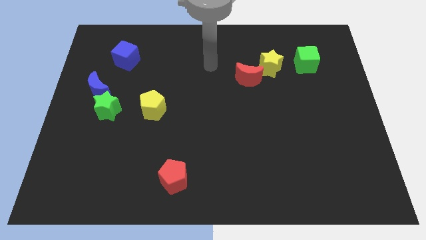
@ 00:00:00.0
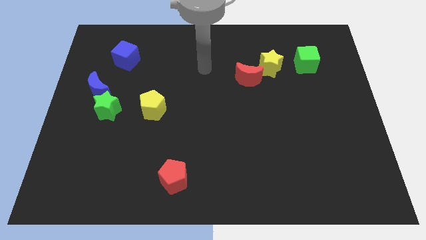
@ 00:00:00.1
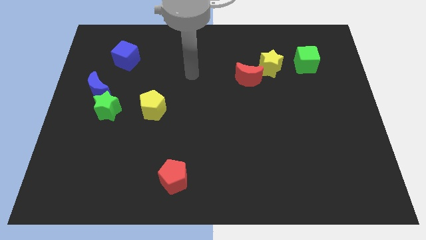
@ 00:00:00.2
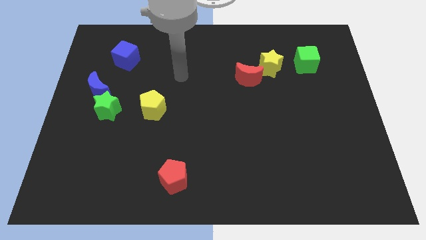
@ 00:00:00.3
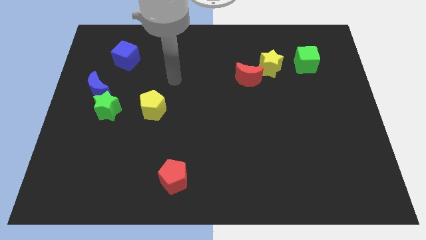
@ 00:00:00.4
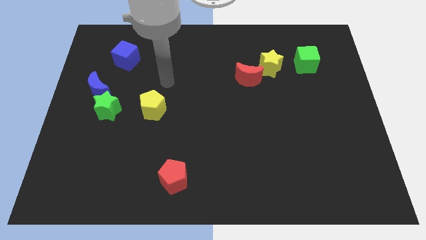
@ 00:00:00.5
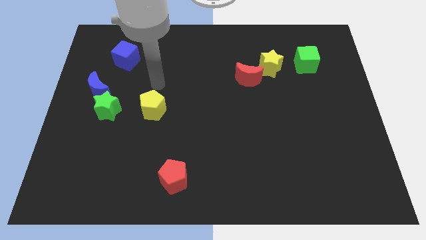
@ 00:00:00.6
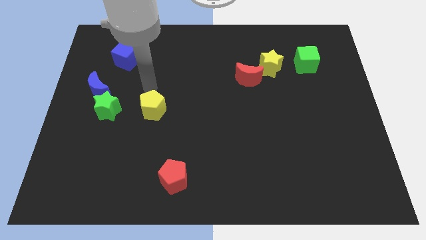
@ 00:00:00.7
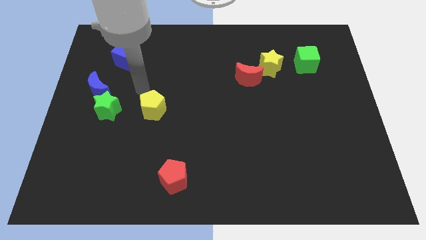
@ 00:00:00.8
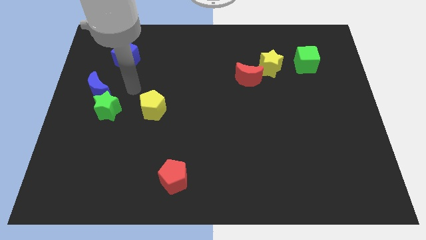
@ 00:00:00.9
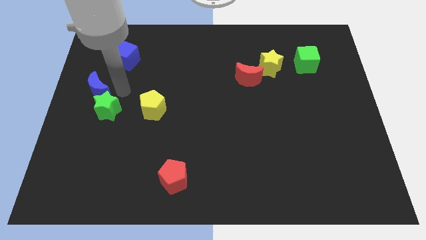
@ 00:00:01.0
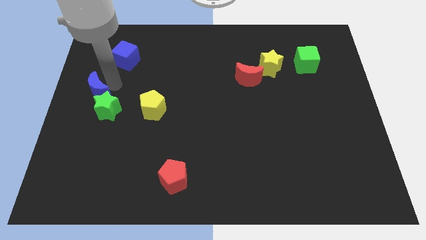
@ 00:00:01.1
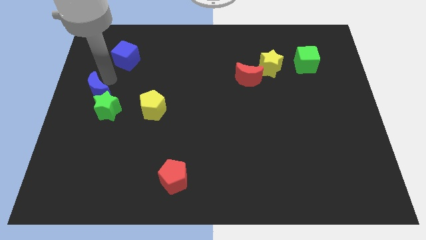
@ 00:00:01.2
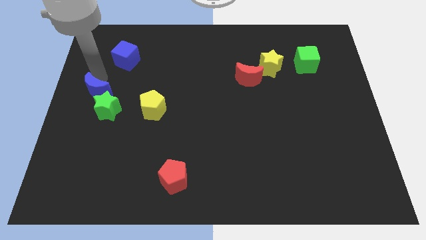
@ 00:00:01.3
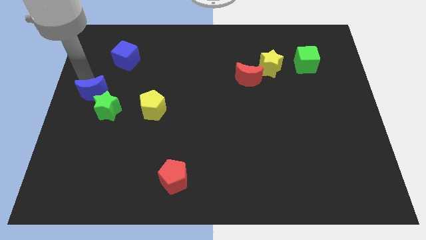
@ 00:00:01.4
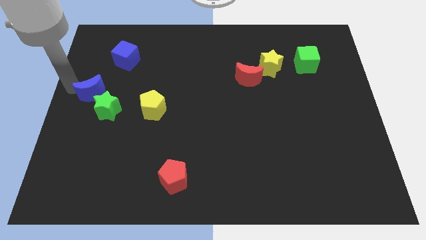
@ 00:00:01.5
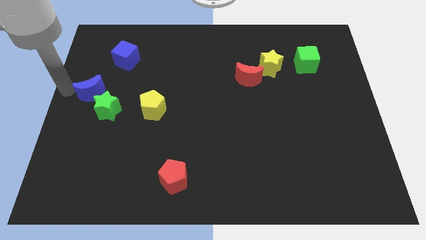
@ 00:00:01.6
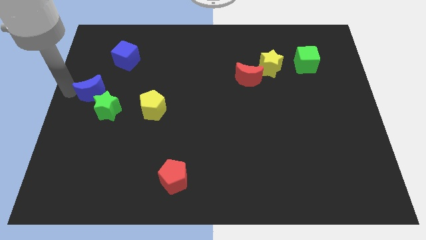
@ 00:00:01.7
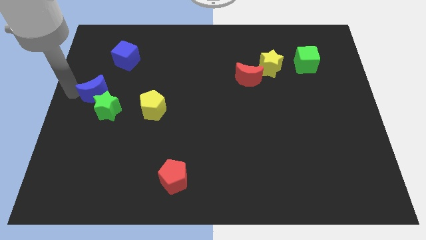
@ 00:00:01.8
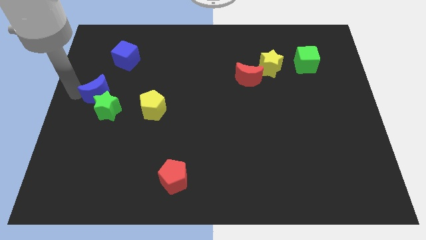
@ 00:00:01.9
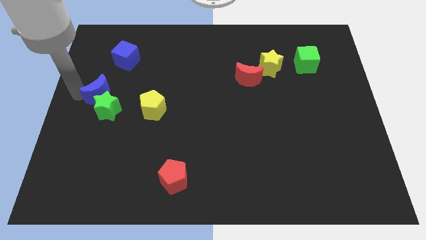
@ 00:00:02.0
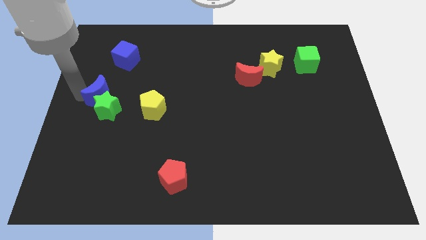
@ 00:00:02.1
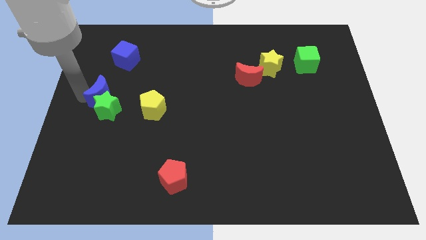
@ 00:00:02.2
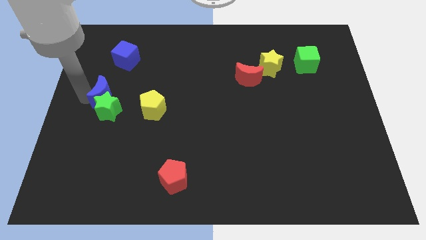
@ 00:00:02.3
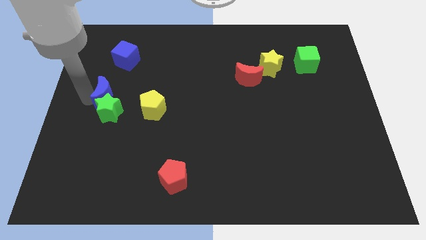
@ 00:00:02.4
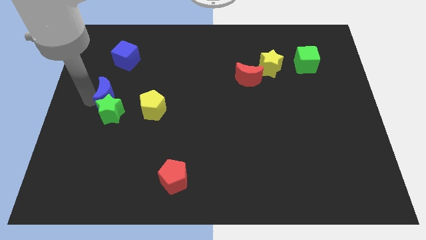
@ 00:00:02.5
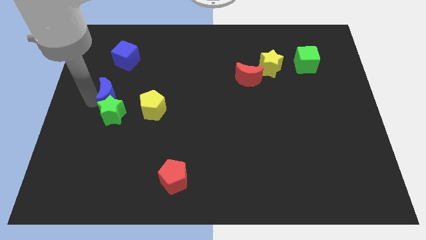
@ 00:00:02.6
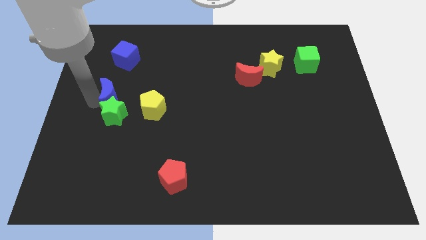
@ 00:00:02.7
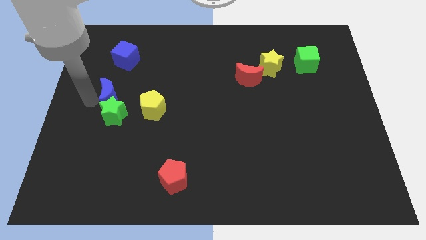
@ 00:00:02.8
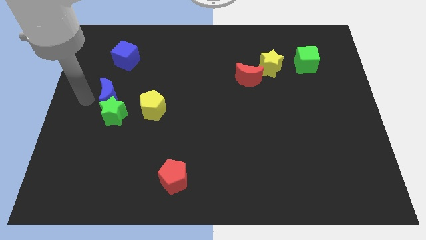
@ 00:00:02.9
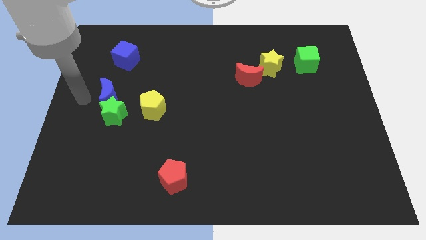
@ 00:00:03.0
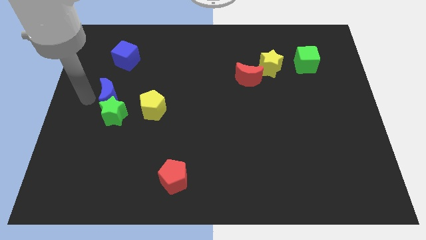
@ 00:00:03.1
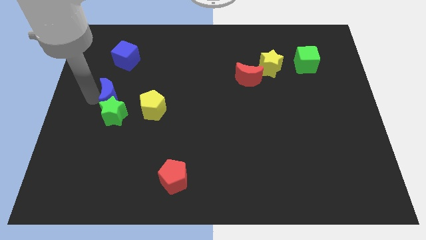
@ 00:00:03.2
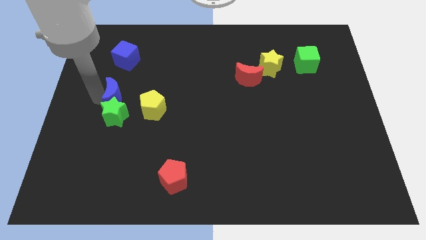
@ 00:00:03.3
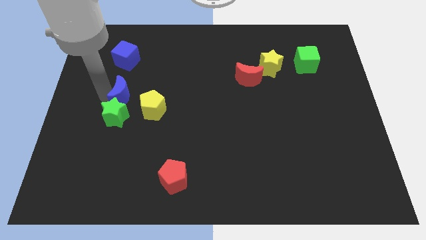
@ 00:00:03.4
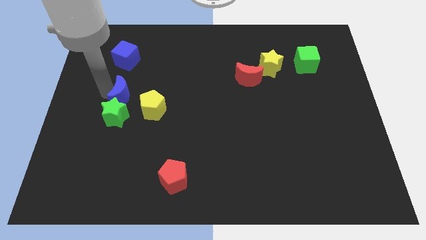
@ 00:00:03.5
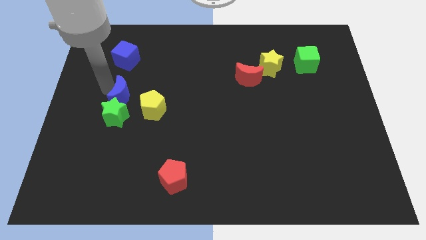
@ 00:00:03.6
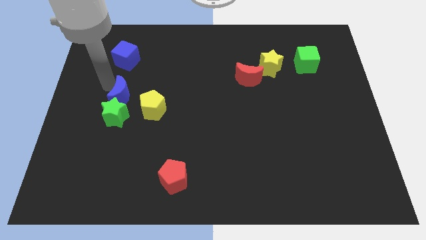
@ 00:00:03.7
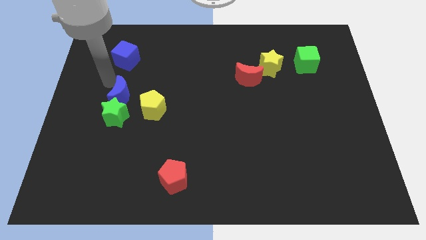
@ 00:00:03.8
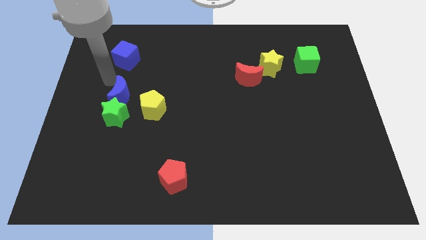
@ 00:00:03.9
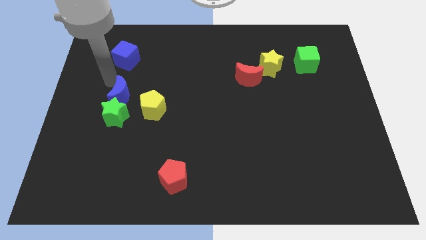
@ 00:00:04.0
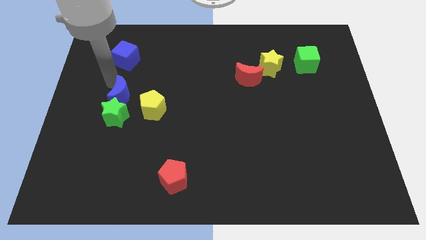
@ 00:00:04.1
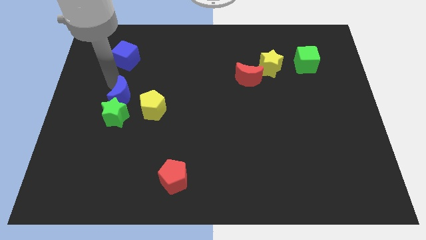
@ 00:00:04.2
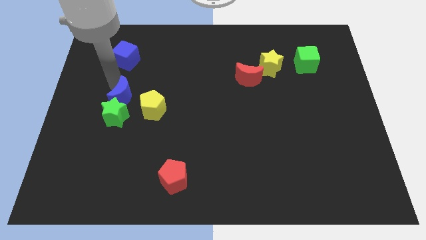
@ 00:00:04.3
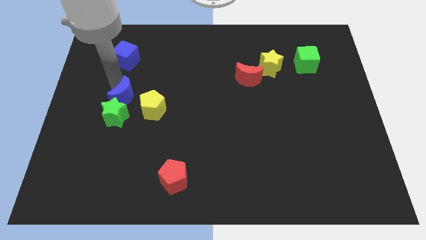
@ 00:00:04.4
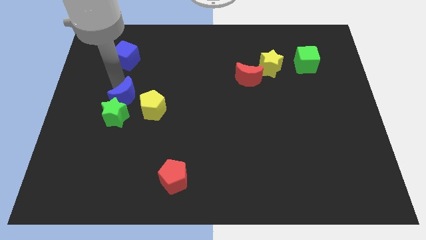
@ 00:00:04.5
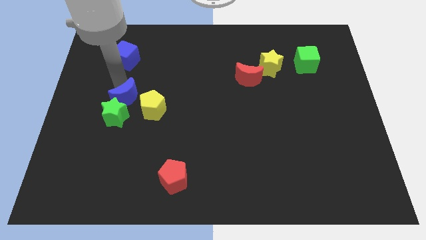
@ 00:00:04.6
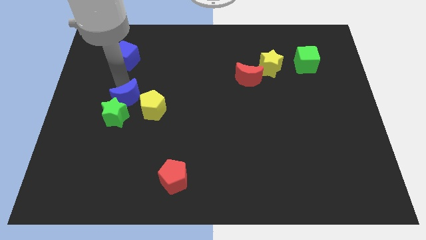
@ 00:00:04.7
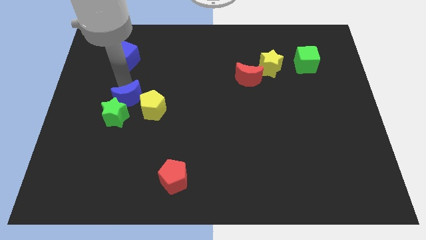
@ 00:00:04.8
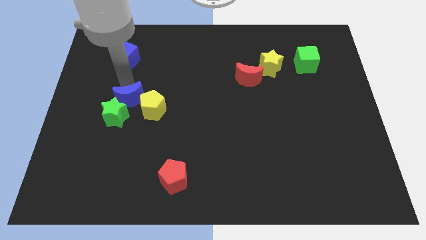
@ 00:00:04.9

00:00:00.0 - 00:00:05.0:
slide the blue moon diagonally downwards and to the right somewhat

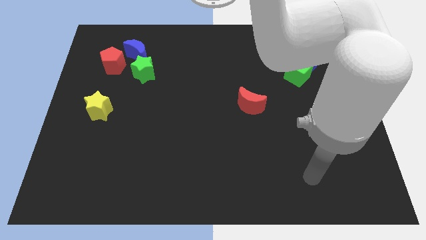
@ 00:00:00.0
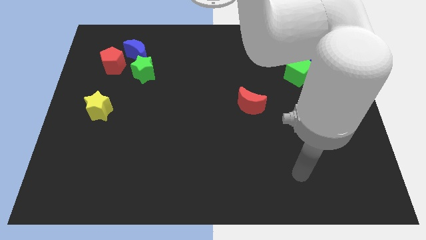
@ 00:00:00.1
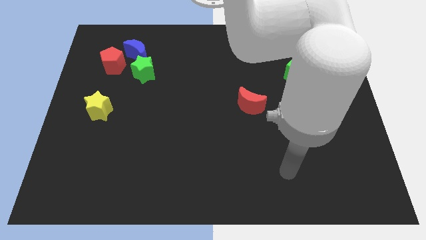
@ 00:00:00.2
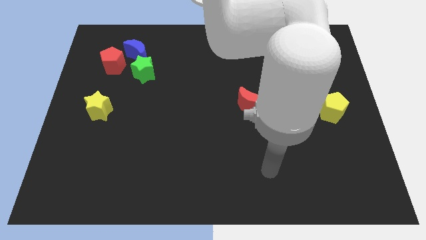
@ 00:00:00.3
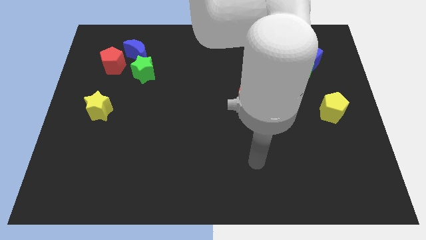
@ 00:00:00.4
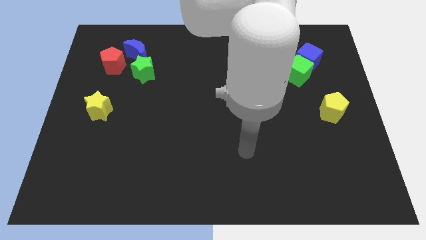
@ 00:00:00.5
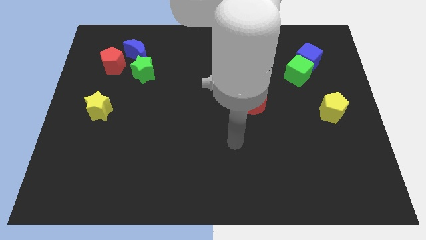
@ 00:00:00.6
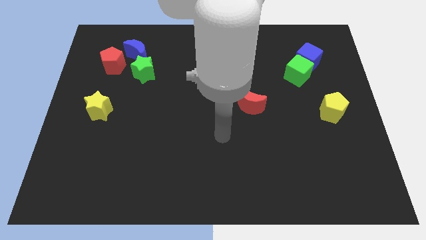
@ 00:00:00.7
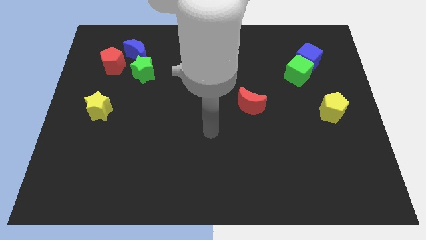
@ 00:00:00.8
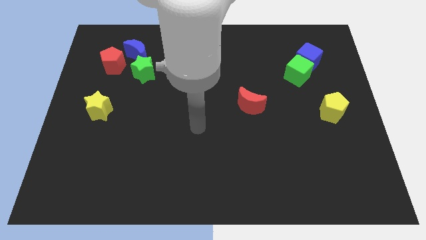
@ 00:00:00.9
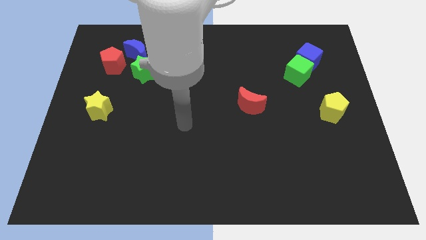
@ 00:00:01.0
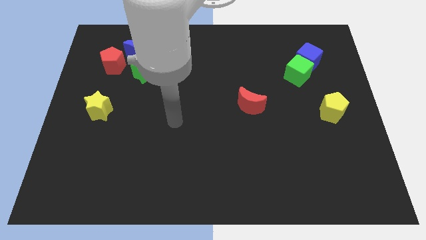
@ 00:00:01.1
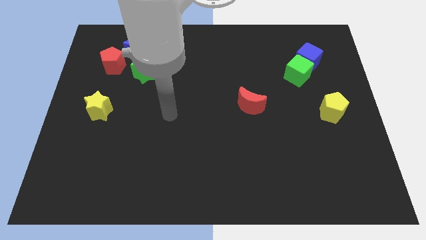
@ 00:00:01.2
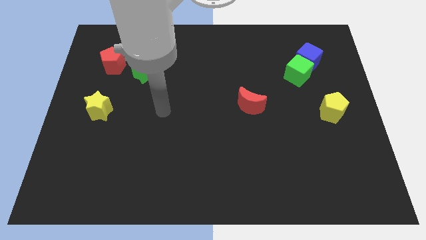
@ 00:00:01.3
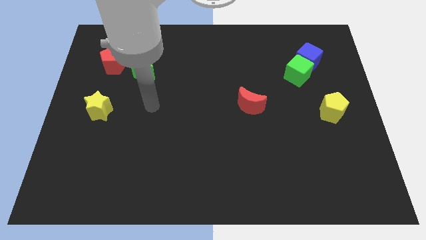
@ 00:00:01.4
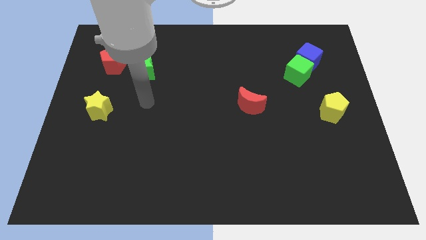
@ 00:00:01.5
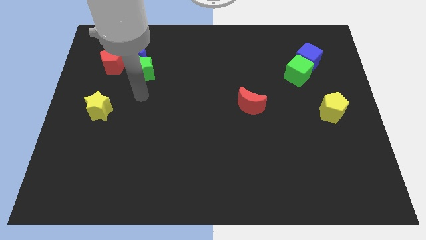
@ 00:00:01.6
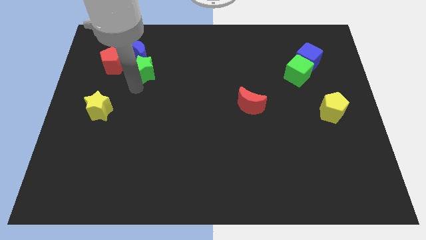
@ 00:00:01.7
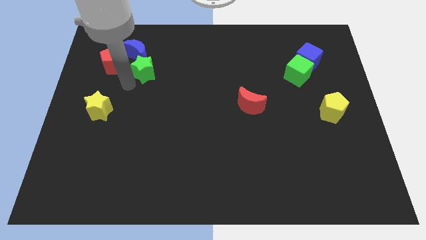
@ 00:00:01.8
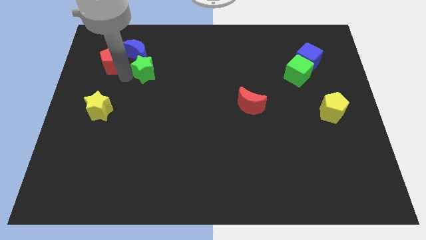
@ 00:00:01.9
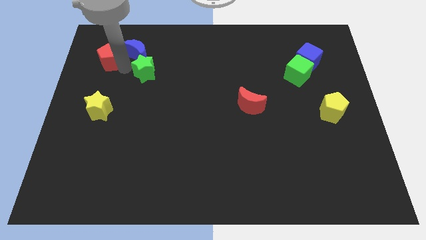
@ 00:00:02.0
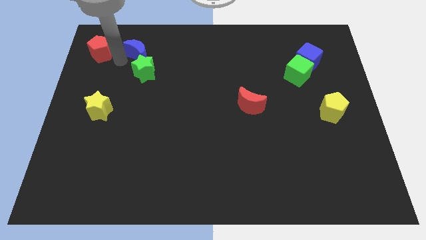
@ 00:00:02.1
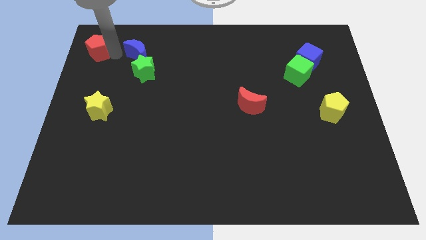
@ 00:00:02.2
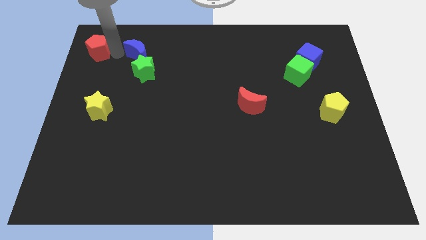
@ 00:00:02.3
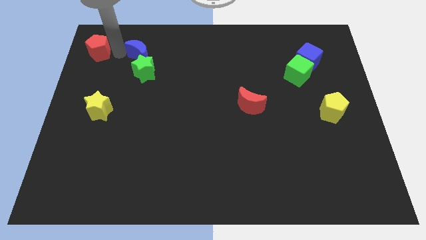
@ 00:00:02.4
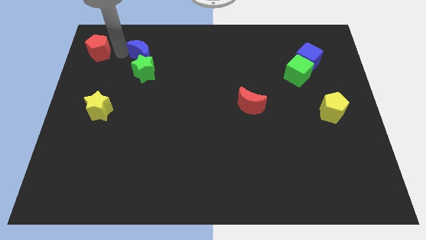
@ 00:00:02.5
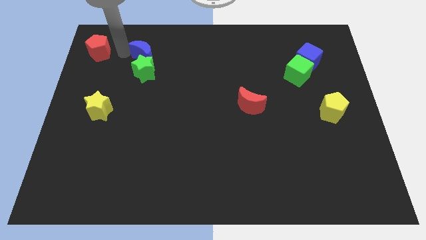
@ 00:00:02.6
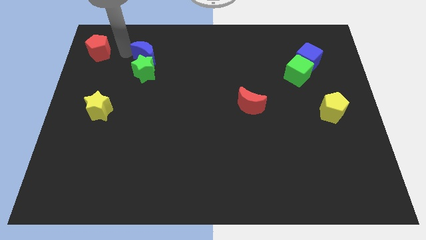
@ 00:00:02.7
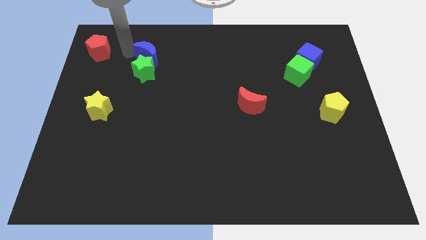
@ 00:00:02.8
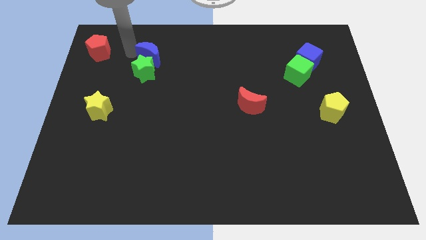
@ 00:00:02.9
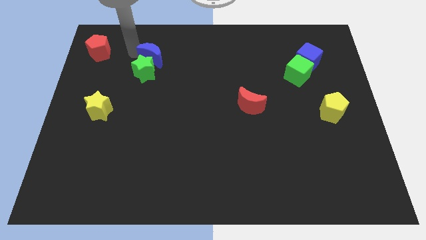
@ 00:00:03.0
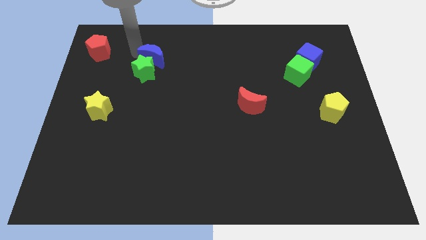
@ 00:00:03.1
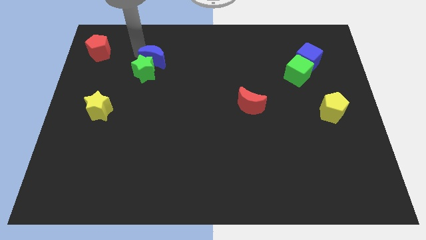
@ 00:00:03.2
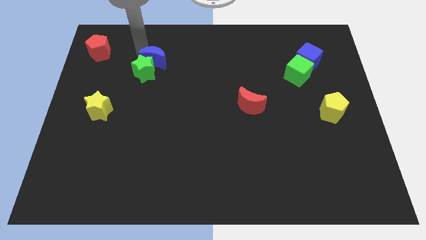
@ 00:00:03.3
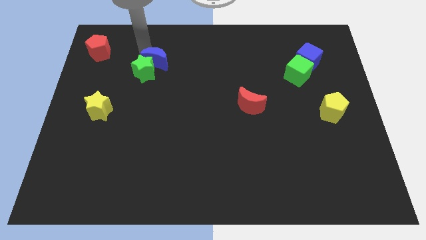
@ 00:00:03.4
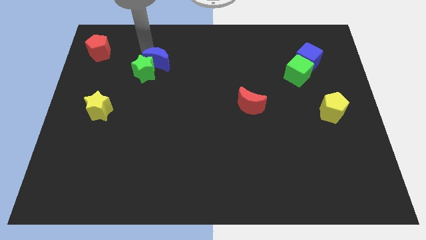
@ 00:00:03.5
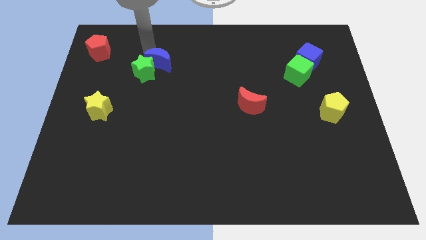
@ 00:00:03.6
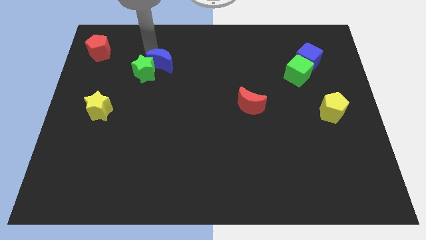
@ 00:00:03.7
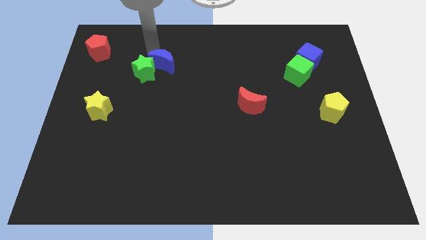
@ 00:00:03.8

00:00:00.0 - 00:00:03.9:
slide the blue moon a little to the right
